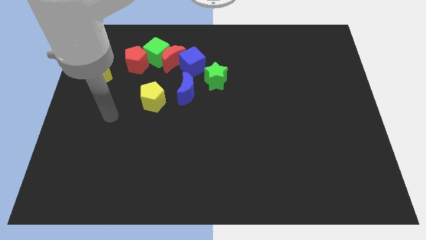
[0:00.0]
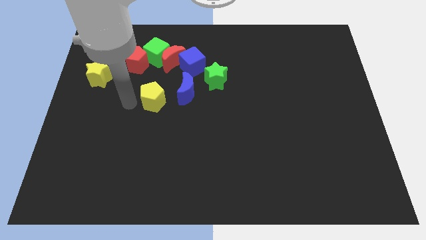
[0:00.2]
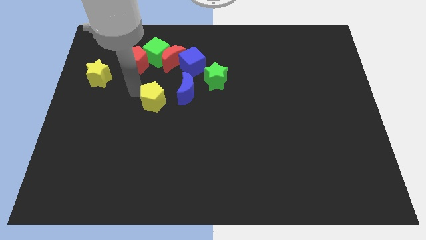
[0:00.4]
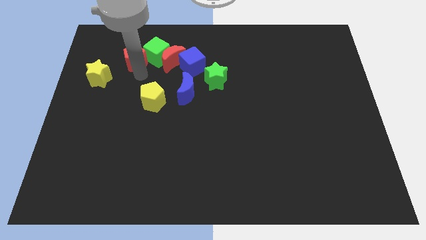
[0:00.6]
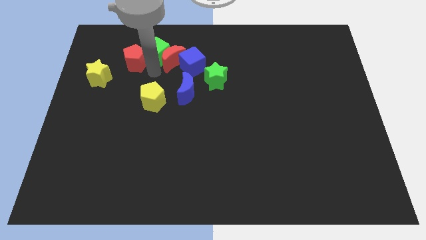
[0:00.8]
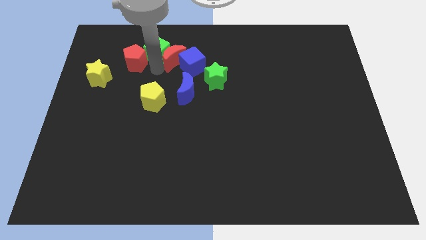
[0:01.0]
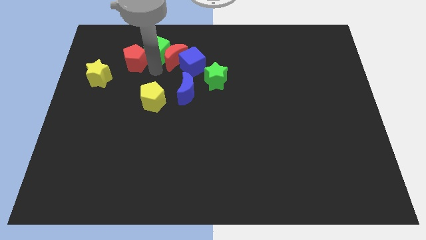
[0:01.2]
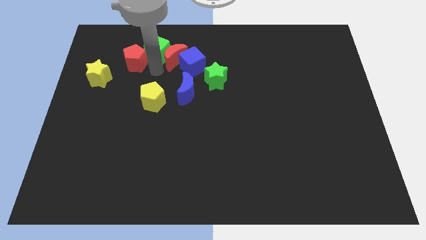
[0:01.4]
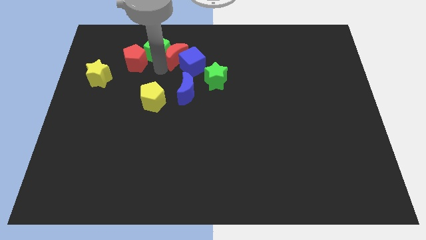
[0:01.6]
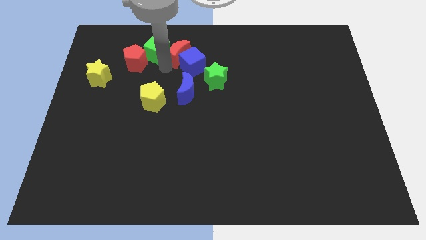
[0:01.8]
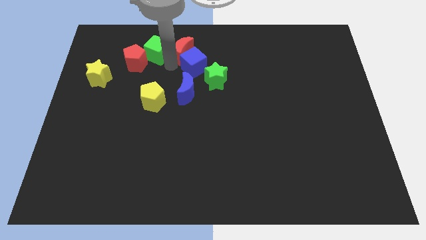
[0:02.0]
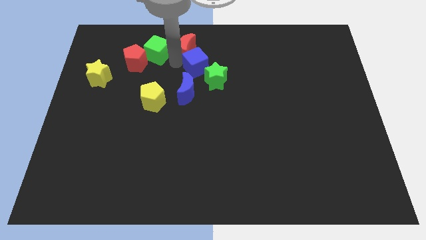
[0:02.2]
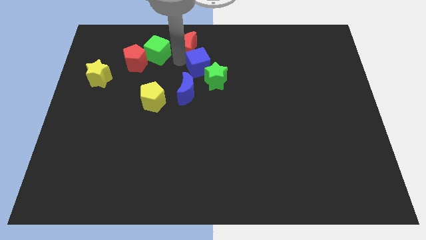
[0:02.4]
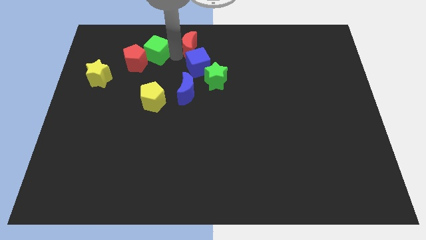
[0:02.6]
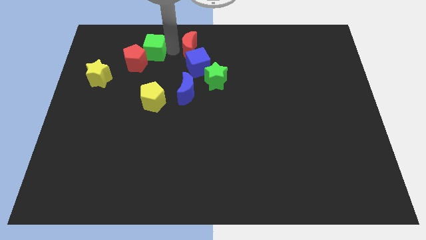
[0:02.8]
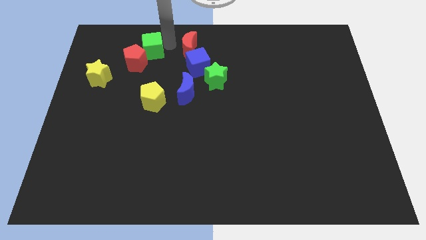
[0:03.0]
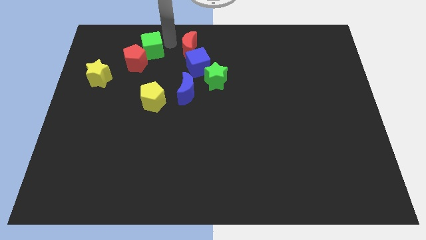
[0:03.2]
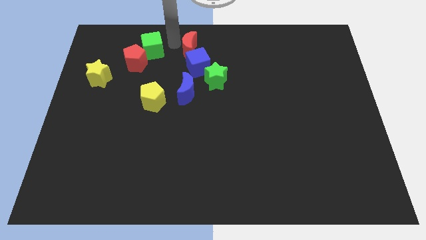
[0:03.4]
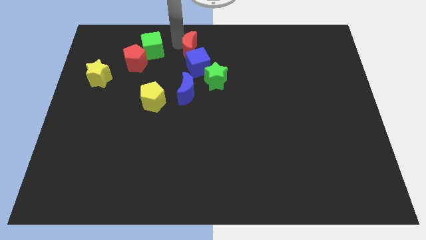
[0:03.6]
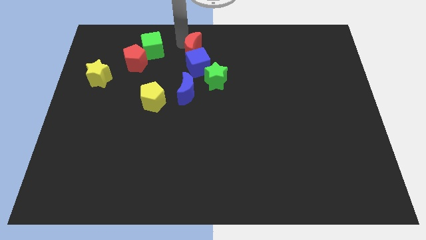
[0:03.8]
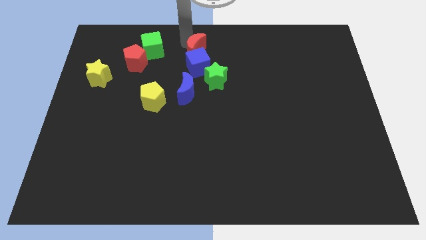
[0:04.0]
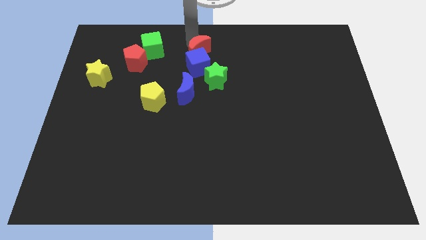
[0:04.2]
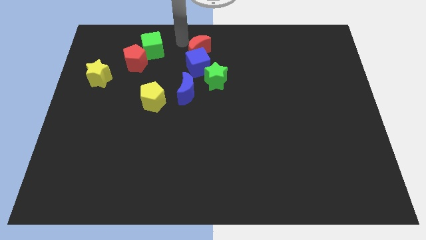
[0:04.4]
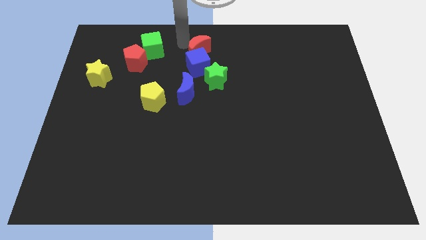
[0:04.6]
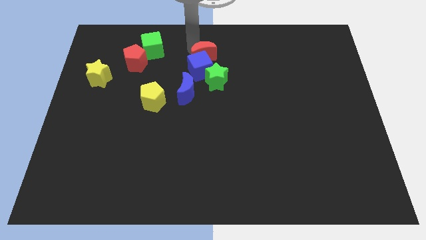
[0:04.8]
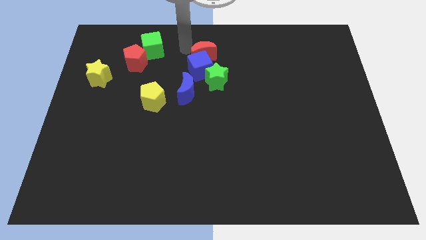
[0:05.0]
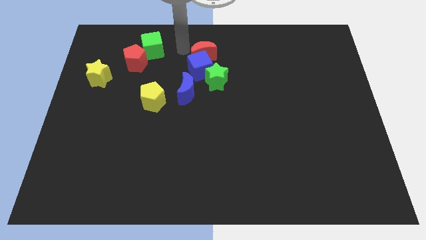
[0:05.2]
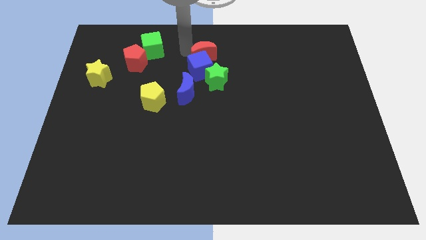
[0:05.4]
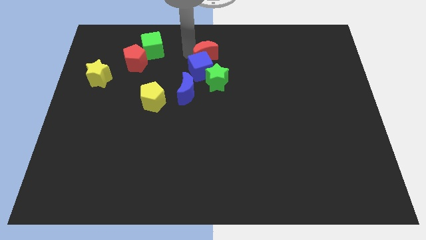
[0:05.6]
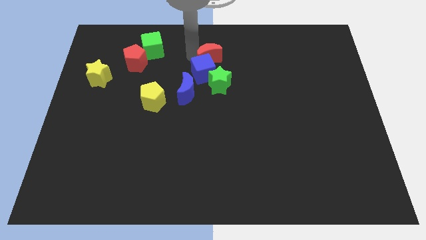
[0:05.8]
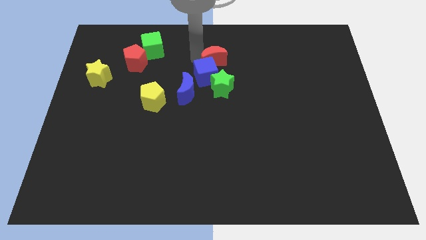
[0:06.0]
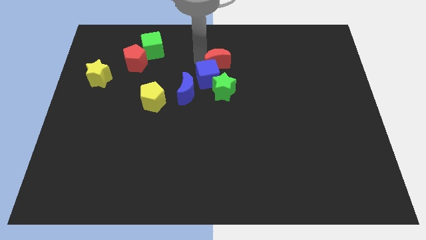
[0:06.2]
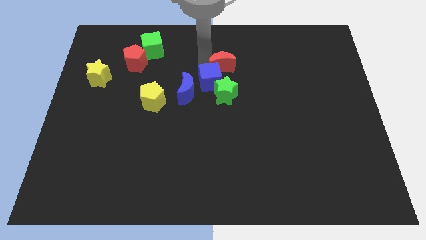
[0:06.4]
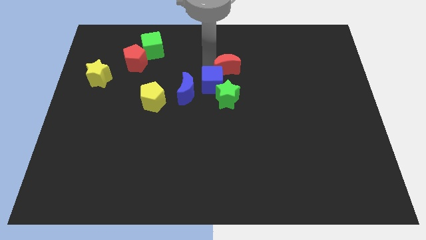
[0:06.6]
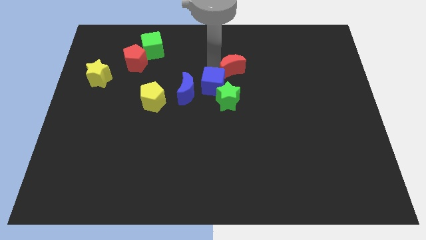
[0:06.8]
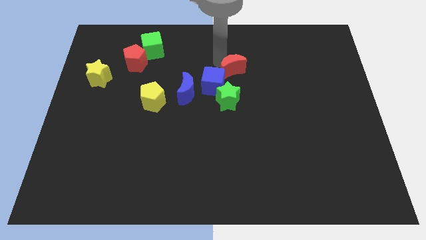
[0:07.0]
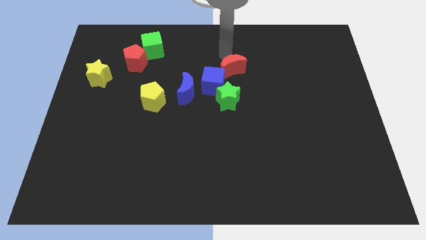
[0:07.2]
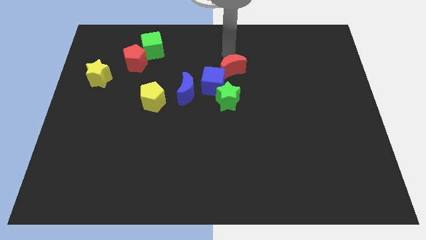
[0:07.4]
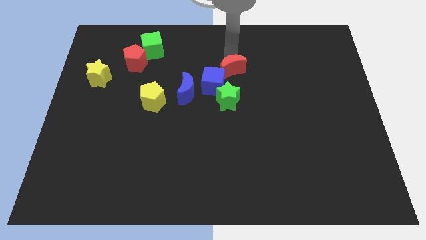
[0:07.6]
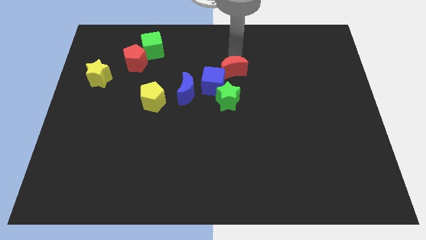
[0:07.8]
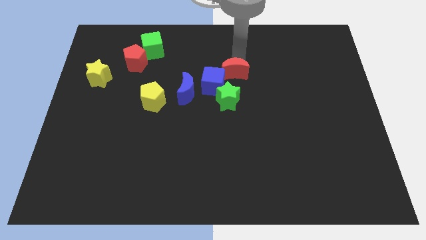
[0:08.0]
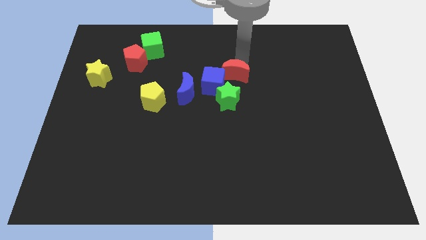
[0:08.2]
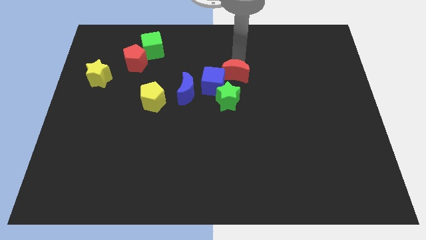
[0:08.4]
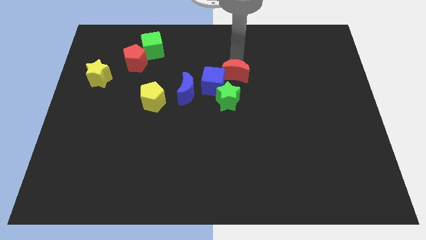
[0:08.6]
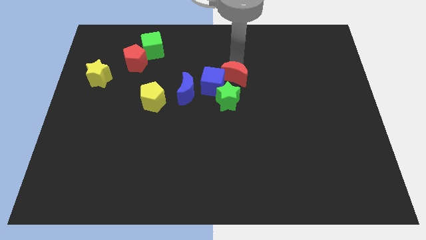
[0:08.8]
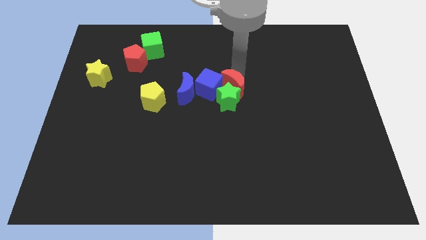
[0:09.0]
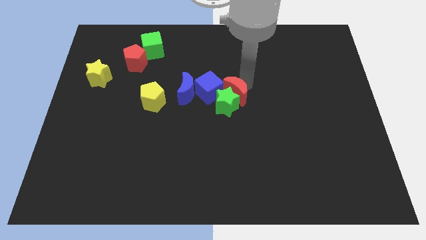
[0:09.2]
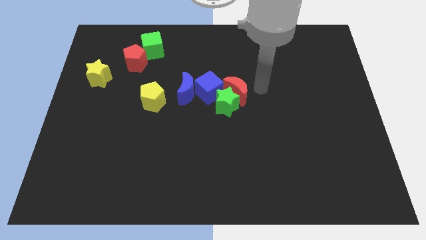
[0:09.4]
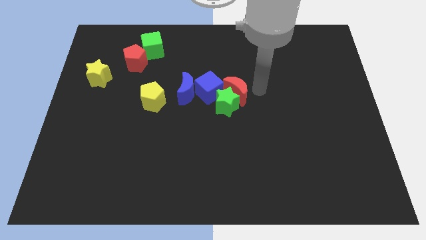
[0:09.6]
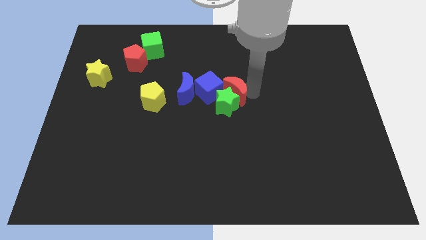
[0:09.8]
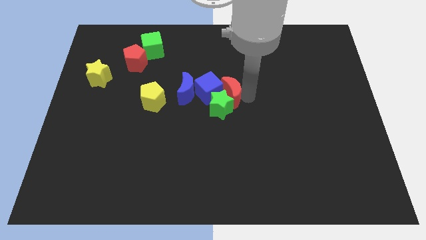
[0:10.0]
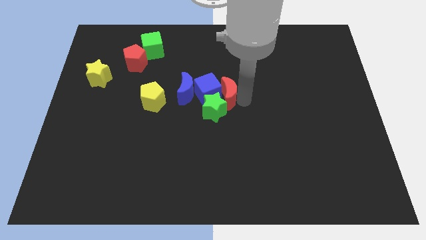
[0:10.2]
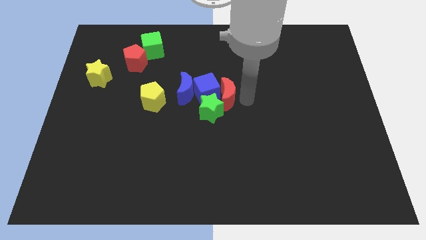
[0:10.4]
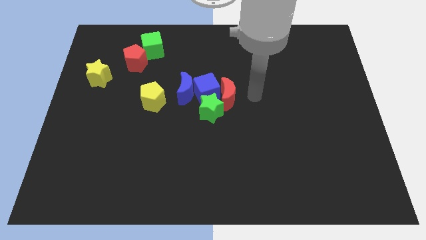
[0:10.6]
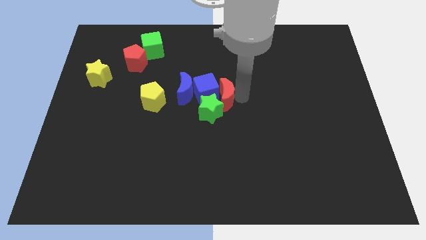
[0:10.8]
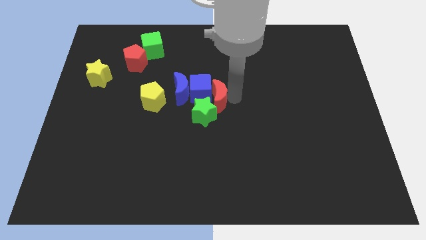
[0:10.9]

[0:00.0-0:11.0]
move the red moon just right of the yellow pentagon

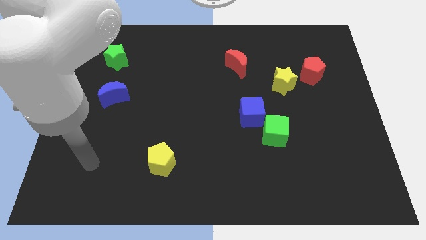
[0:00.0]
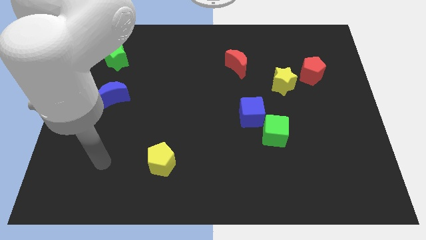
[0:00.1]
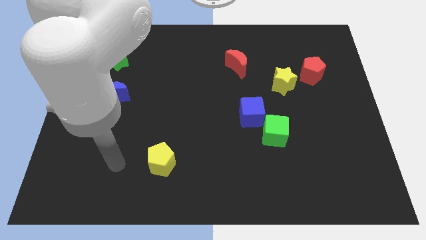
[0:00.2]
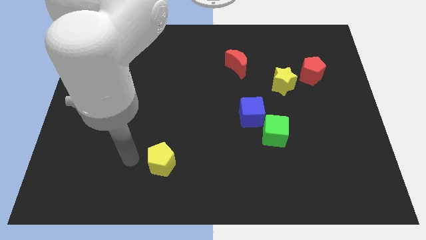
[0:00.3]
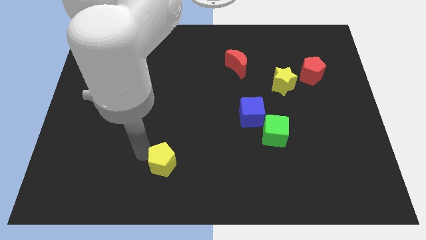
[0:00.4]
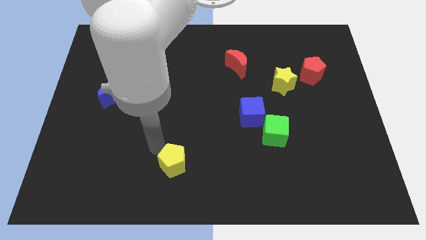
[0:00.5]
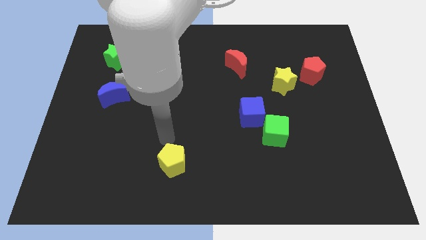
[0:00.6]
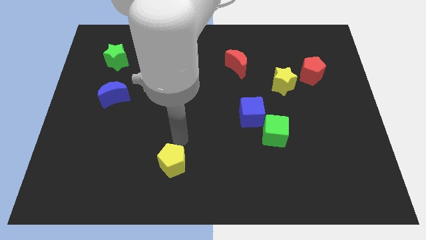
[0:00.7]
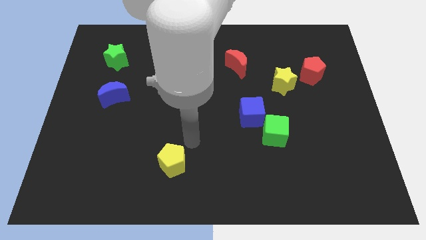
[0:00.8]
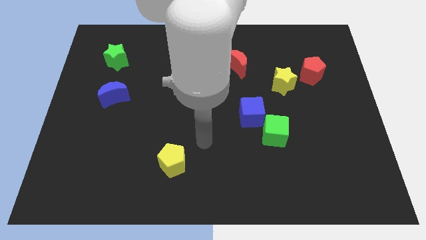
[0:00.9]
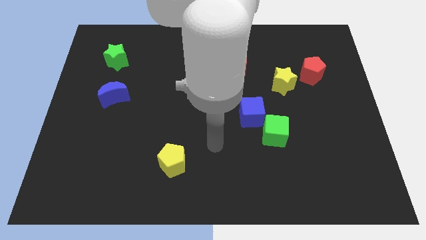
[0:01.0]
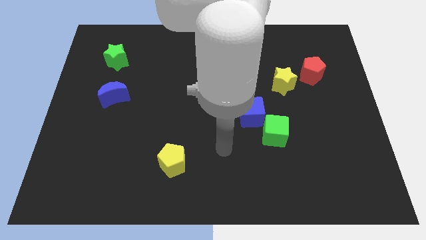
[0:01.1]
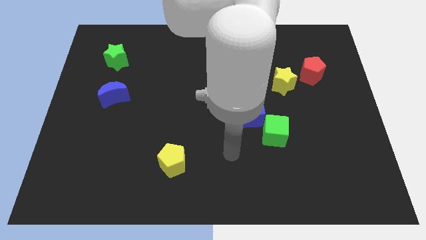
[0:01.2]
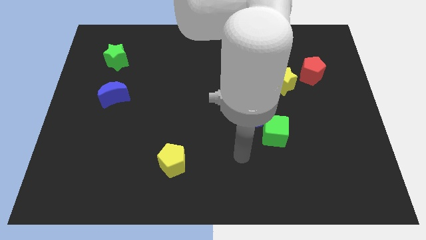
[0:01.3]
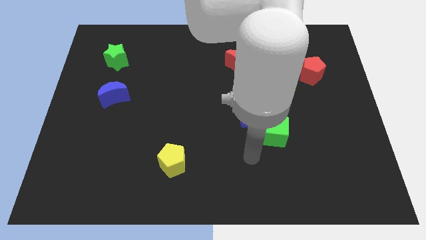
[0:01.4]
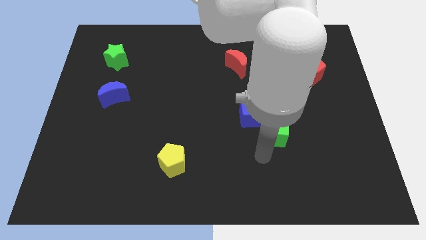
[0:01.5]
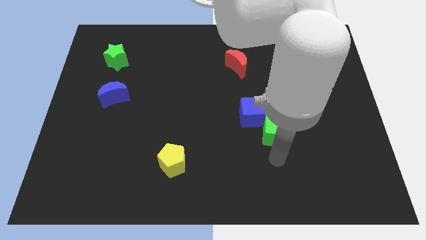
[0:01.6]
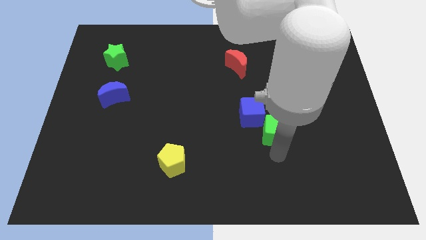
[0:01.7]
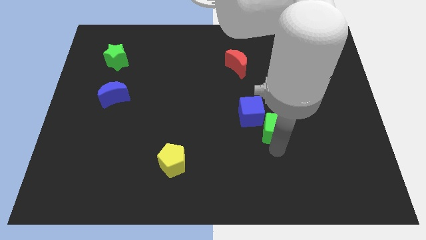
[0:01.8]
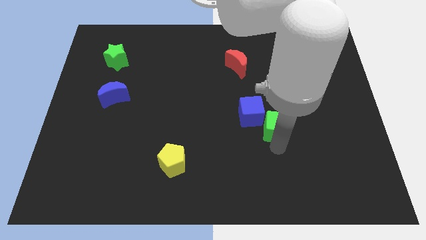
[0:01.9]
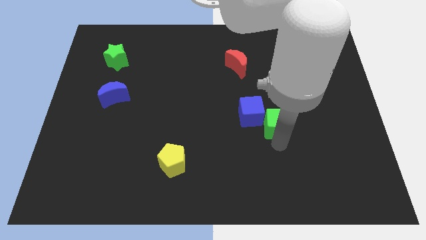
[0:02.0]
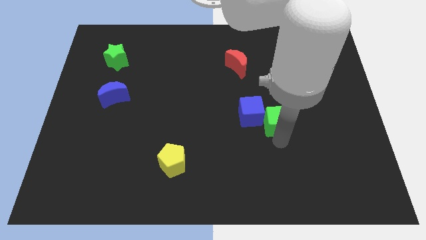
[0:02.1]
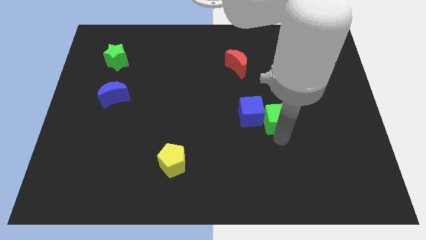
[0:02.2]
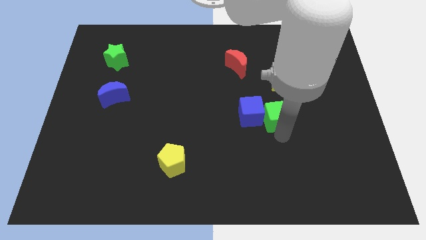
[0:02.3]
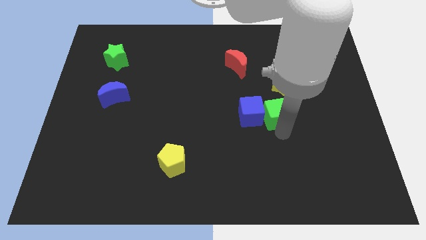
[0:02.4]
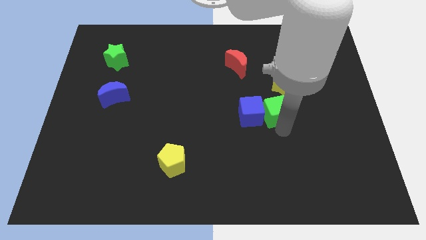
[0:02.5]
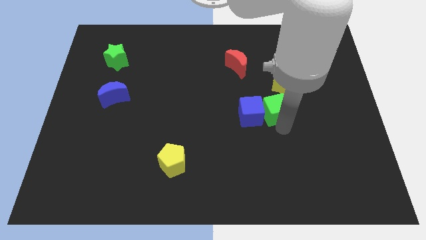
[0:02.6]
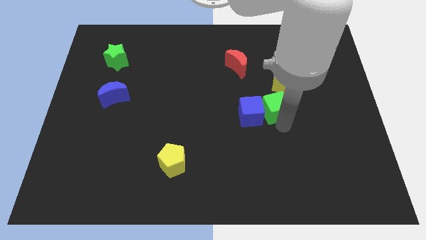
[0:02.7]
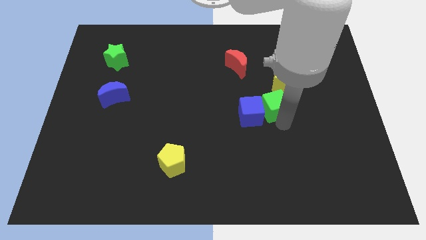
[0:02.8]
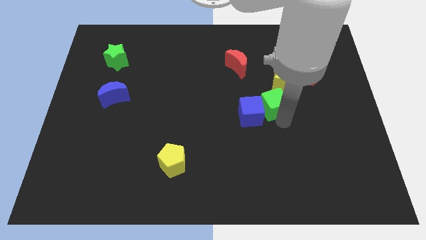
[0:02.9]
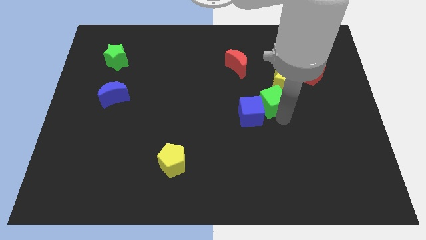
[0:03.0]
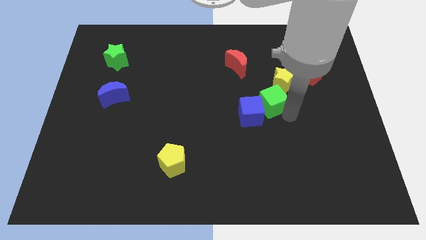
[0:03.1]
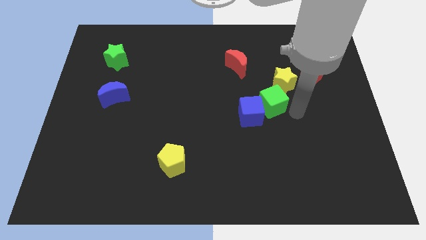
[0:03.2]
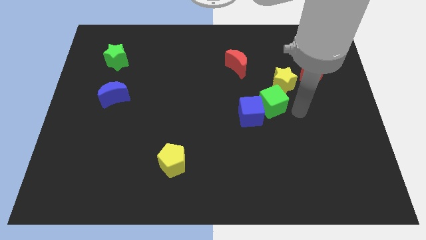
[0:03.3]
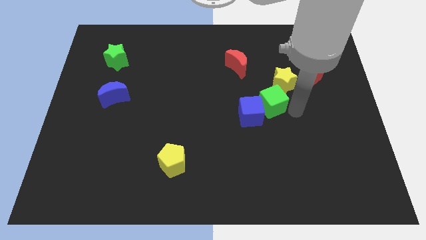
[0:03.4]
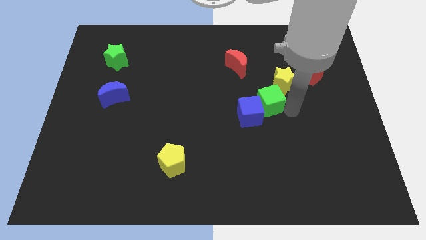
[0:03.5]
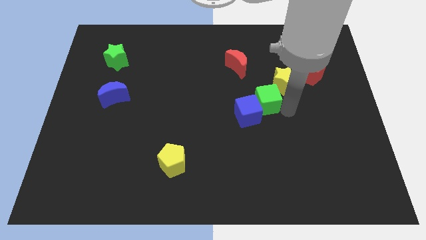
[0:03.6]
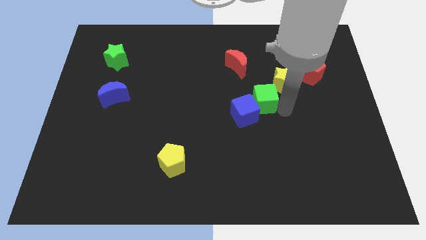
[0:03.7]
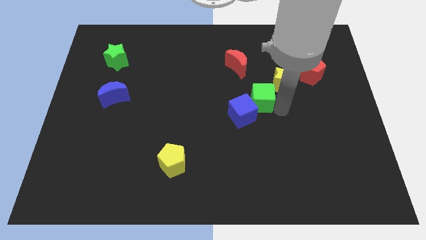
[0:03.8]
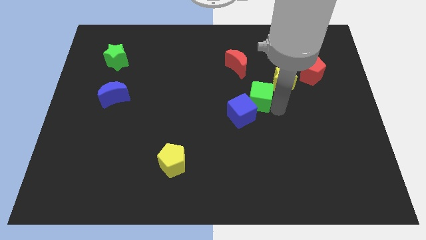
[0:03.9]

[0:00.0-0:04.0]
slide the green cube to the bottom of the red moon
